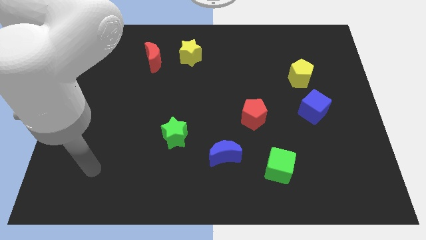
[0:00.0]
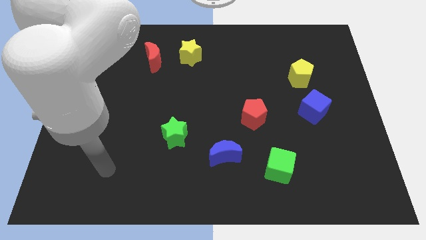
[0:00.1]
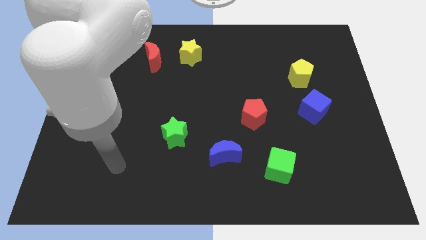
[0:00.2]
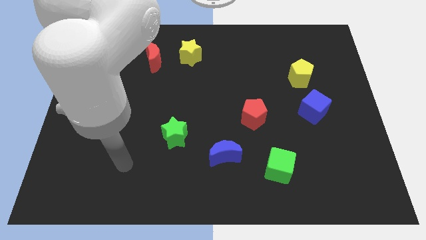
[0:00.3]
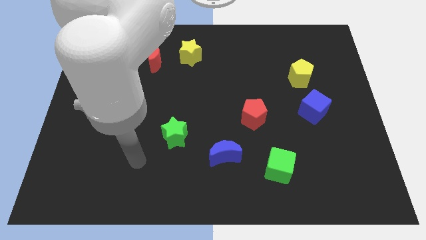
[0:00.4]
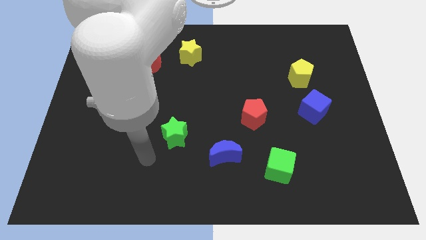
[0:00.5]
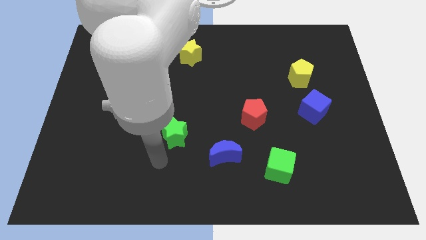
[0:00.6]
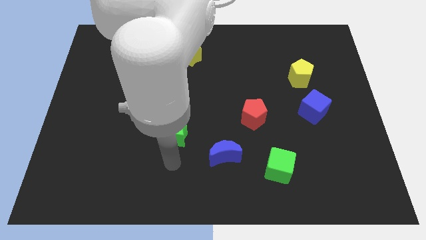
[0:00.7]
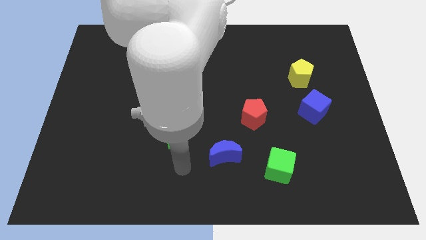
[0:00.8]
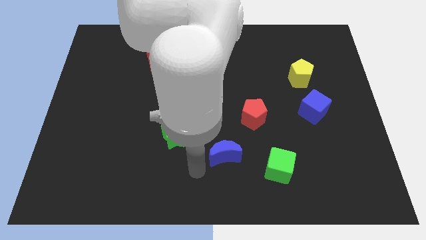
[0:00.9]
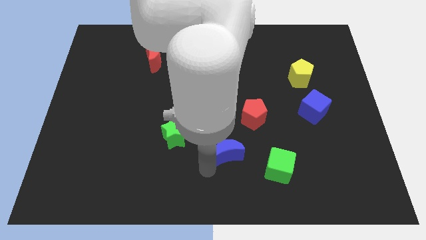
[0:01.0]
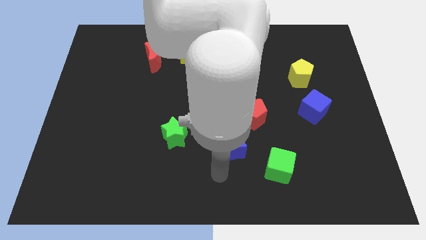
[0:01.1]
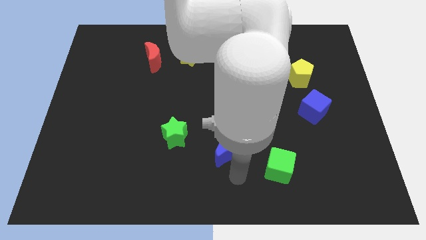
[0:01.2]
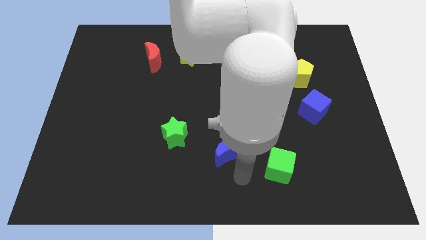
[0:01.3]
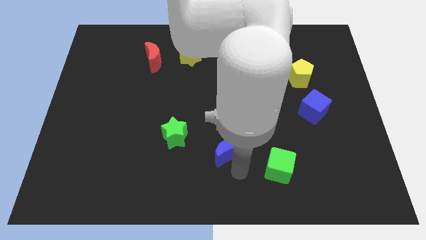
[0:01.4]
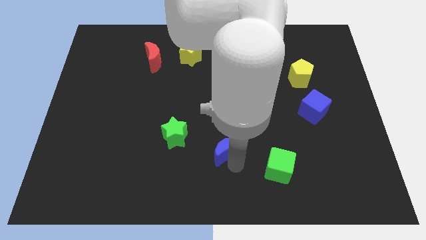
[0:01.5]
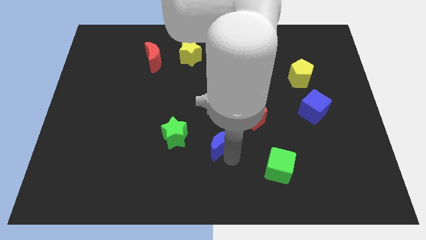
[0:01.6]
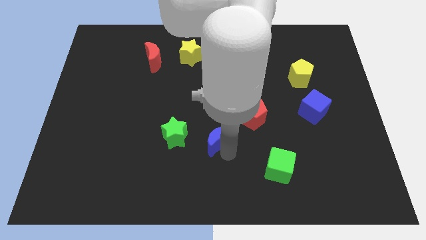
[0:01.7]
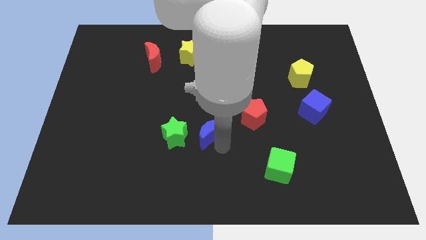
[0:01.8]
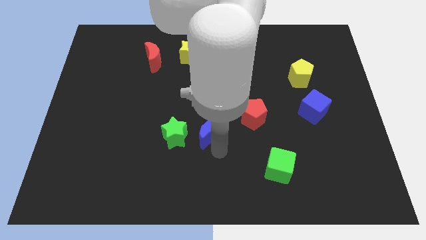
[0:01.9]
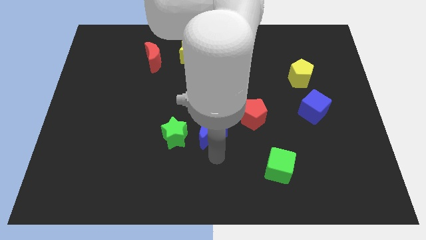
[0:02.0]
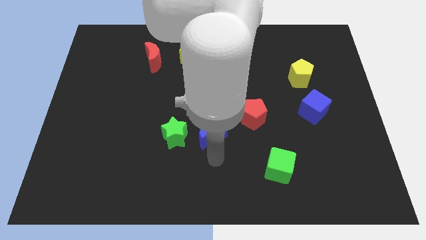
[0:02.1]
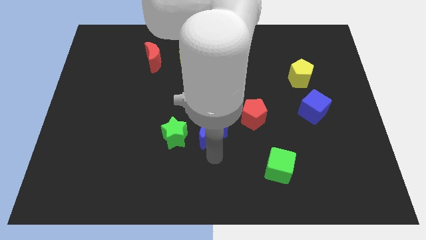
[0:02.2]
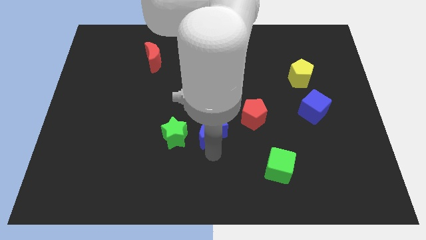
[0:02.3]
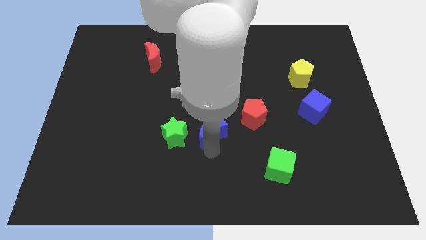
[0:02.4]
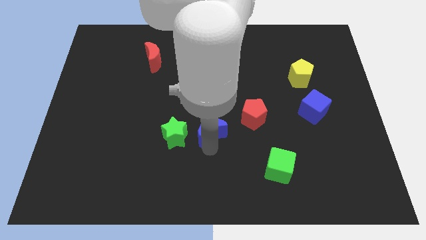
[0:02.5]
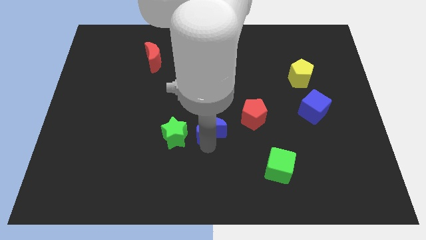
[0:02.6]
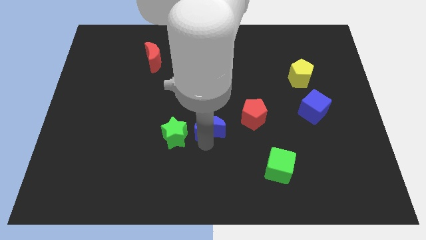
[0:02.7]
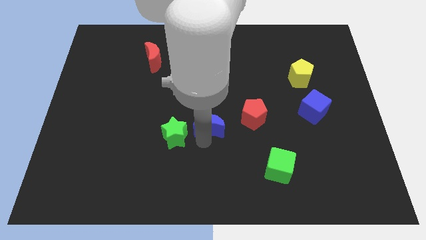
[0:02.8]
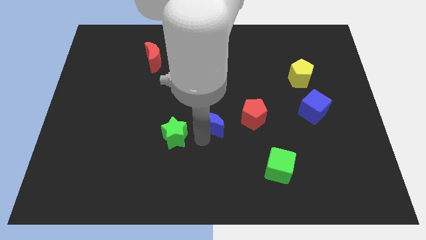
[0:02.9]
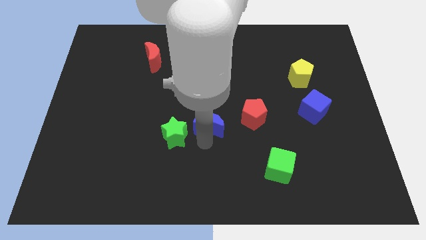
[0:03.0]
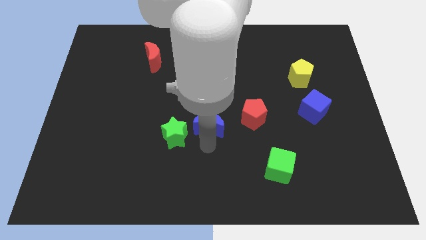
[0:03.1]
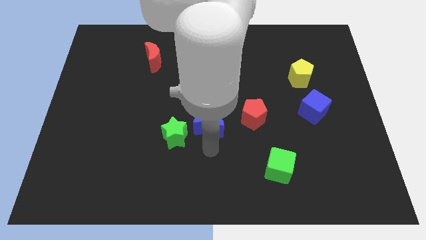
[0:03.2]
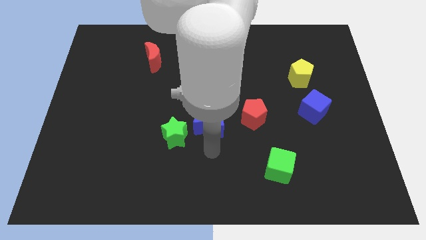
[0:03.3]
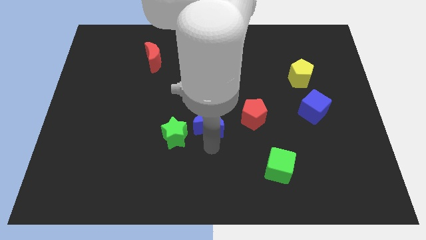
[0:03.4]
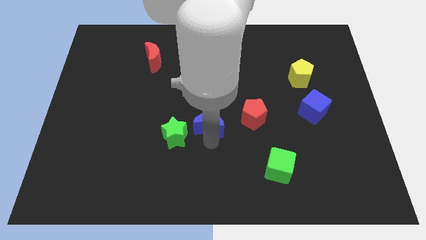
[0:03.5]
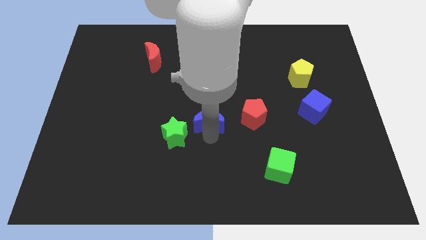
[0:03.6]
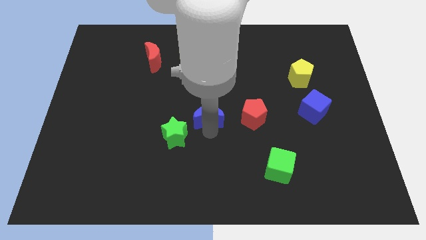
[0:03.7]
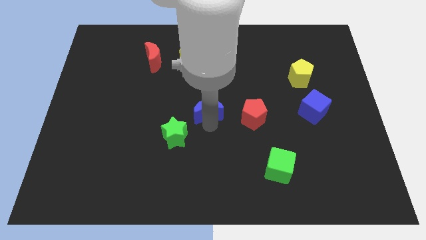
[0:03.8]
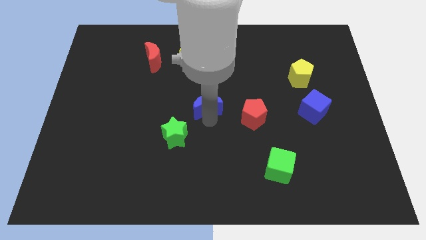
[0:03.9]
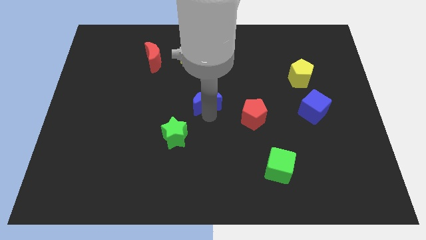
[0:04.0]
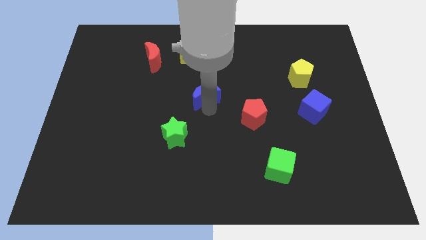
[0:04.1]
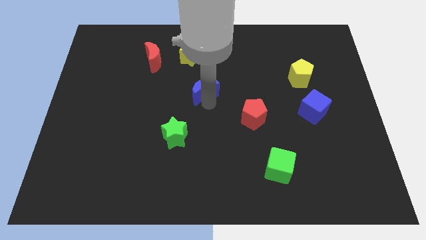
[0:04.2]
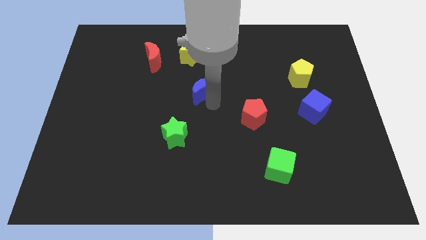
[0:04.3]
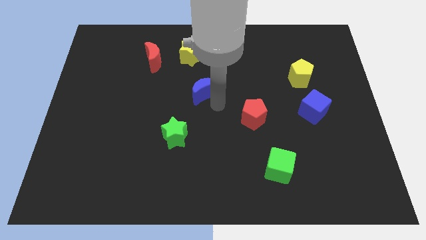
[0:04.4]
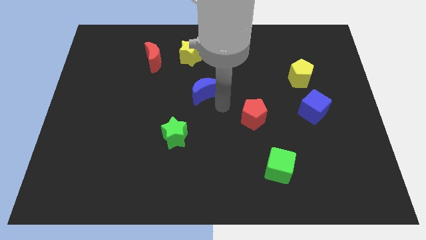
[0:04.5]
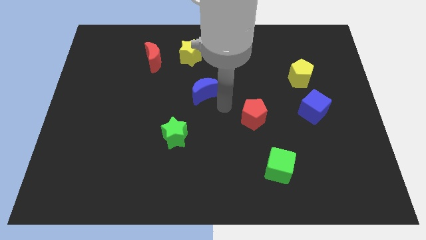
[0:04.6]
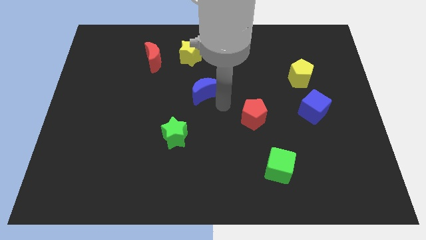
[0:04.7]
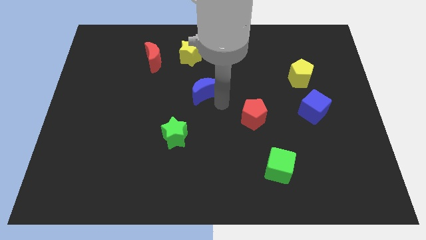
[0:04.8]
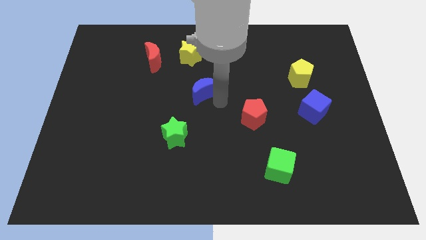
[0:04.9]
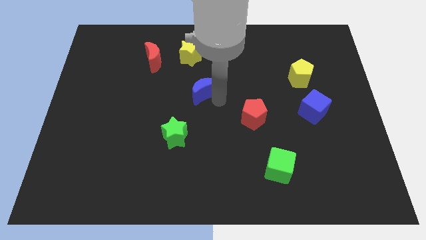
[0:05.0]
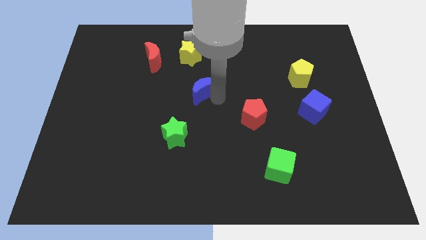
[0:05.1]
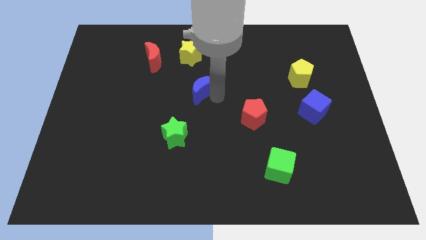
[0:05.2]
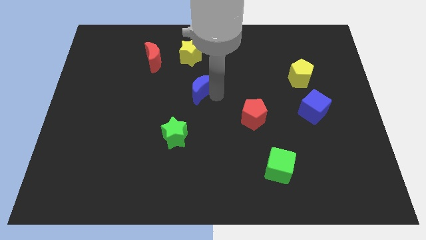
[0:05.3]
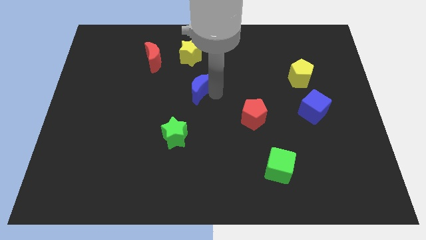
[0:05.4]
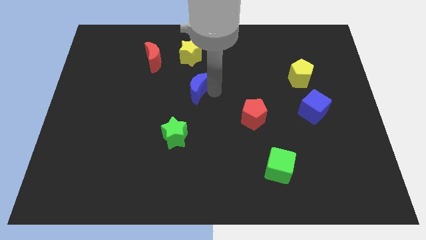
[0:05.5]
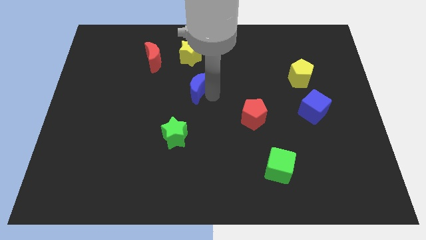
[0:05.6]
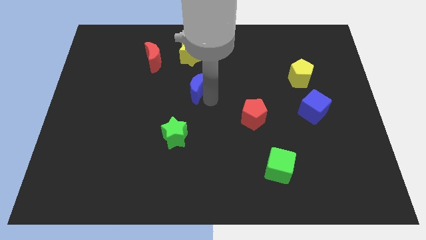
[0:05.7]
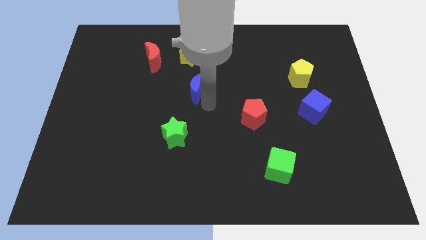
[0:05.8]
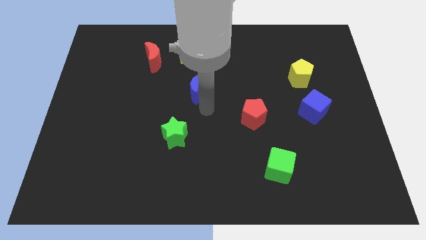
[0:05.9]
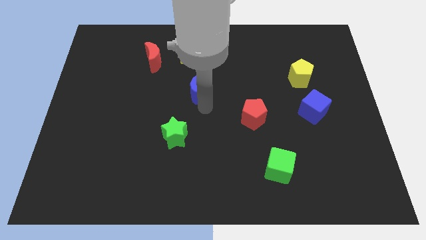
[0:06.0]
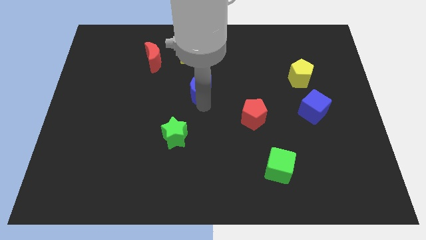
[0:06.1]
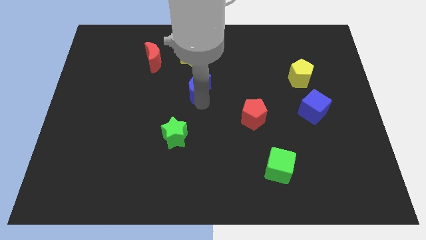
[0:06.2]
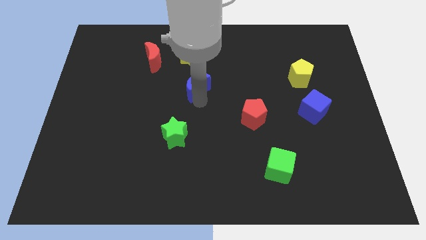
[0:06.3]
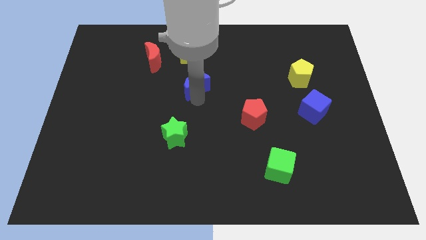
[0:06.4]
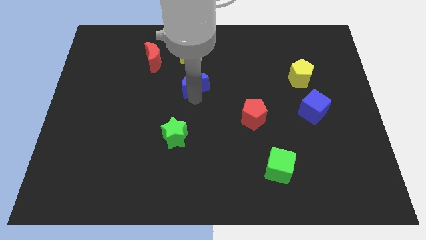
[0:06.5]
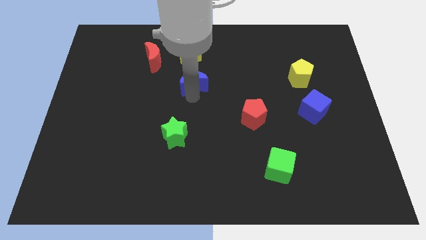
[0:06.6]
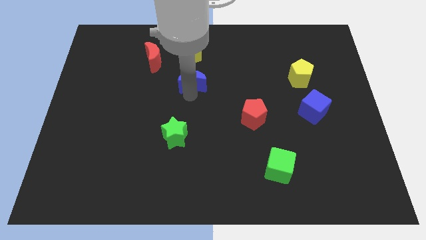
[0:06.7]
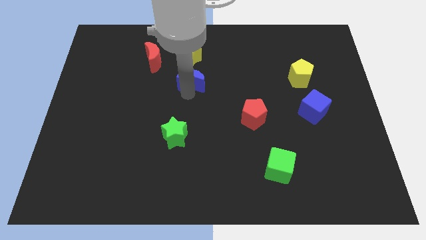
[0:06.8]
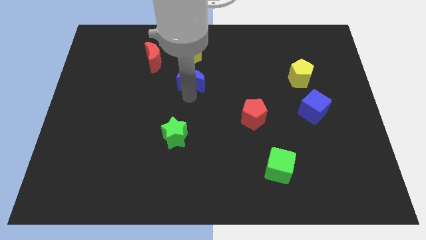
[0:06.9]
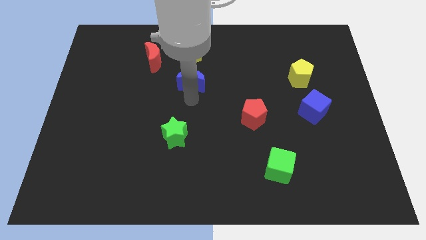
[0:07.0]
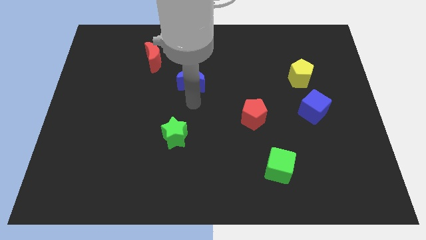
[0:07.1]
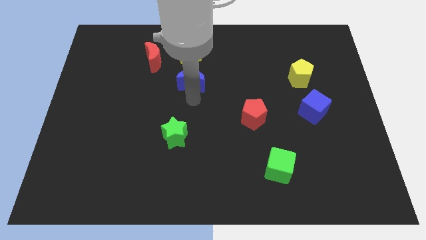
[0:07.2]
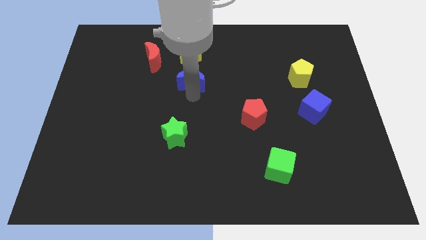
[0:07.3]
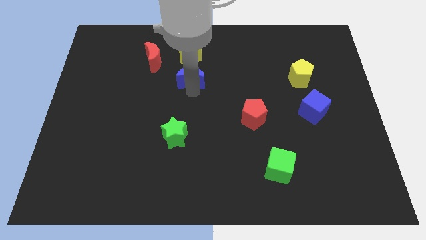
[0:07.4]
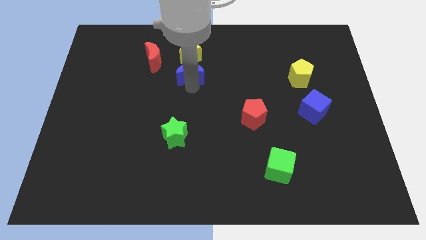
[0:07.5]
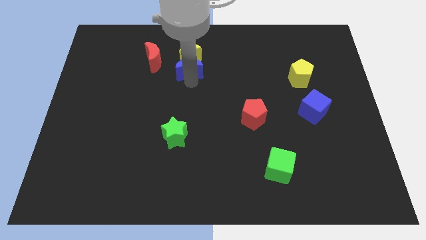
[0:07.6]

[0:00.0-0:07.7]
slide the blue moon to the yellow star
